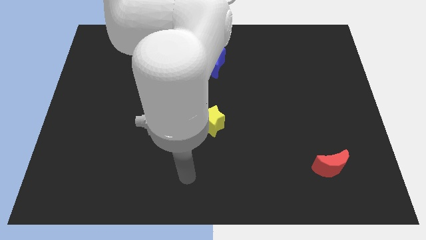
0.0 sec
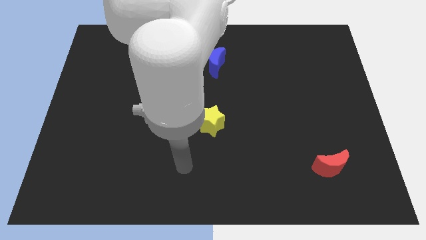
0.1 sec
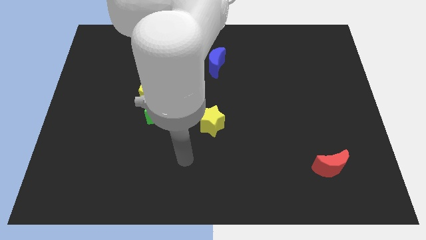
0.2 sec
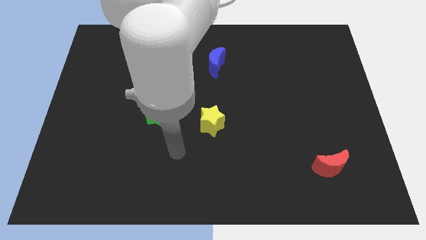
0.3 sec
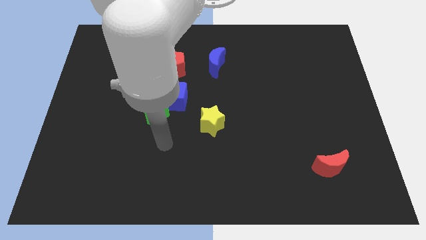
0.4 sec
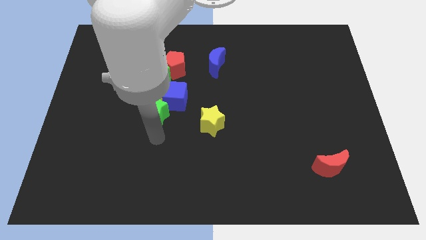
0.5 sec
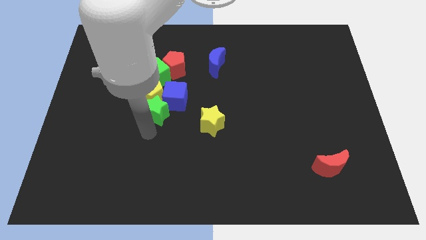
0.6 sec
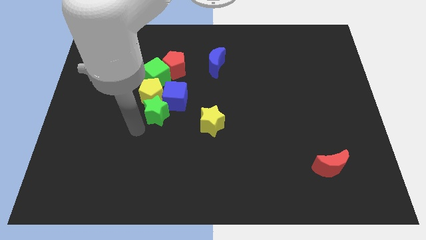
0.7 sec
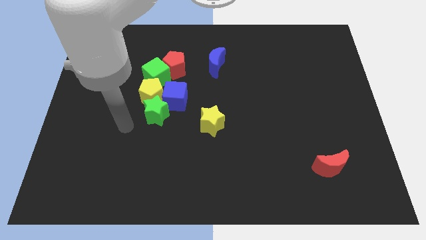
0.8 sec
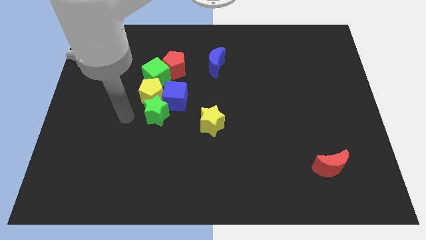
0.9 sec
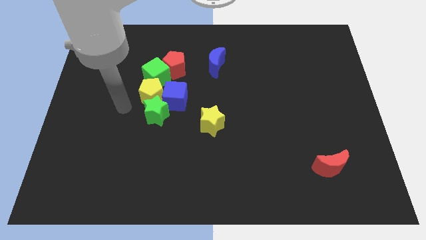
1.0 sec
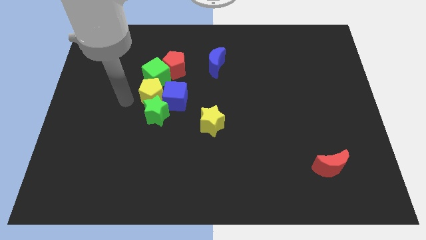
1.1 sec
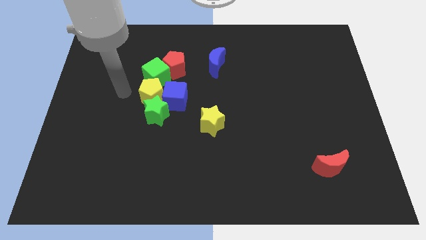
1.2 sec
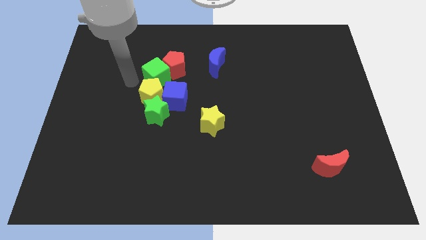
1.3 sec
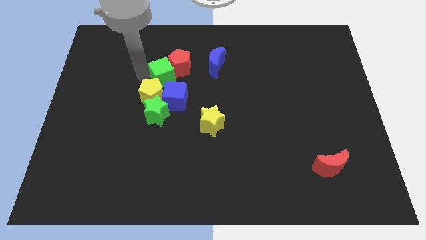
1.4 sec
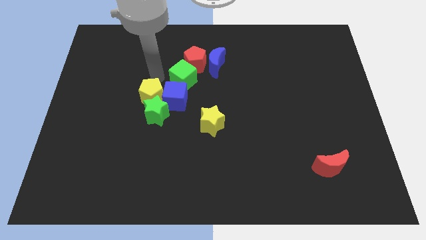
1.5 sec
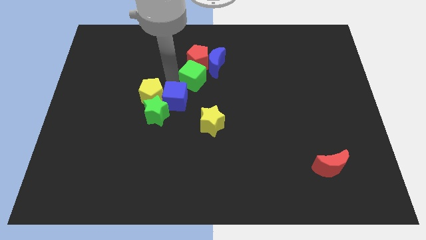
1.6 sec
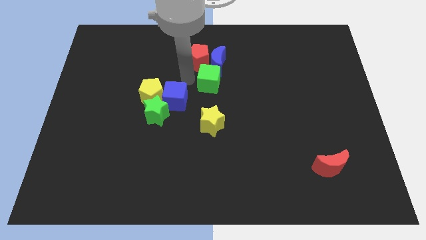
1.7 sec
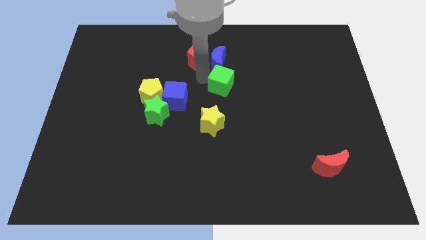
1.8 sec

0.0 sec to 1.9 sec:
move the red pentagon away from the green cube

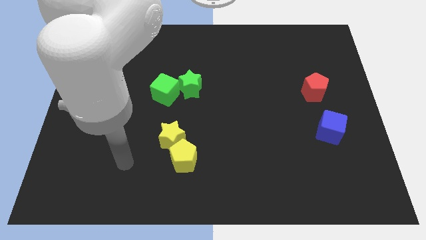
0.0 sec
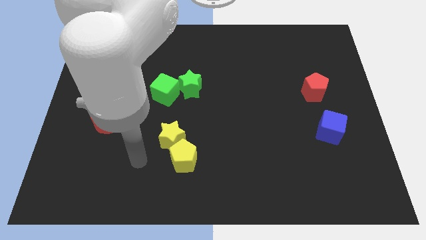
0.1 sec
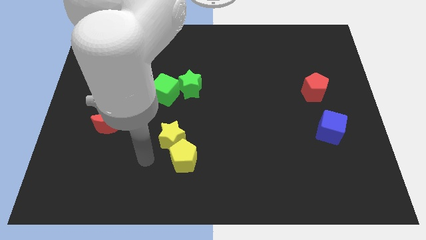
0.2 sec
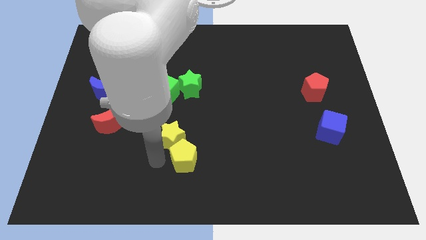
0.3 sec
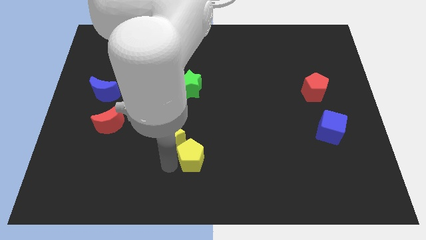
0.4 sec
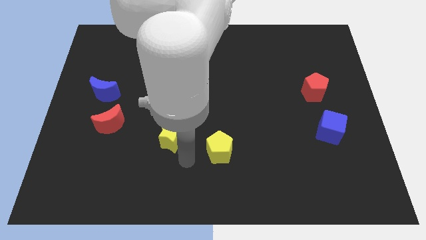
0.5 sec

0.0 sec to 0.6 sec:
move the yellow star away from the yellow pentagon

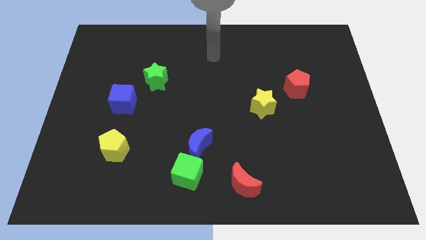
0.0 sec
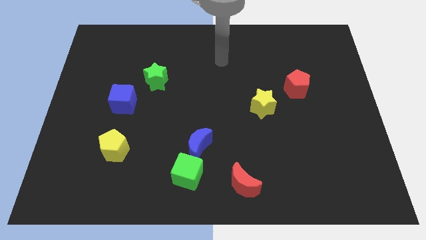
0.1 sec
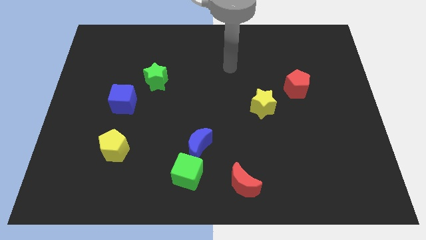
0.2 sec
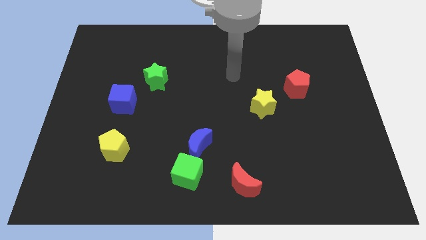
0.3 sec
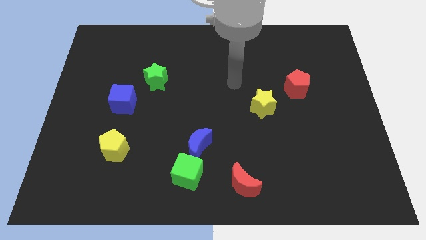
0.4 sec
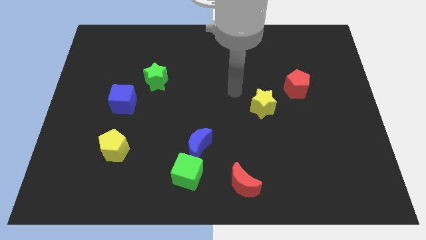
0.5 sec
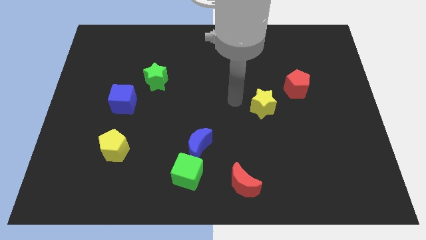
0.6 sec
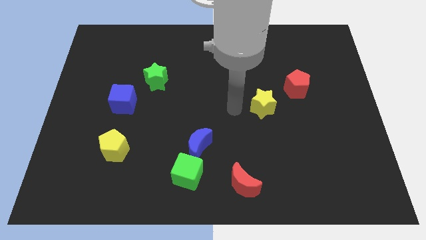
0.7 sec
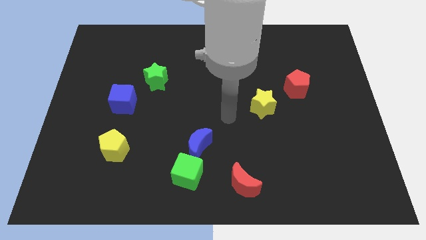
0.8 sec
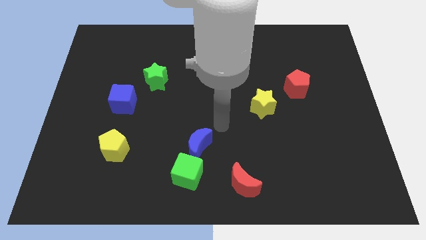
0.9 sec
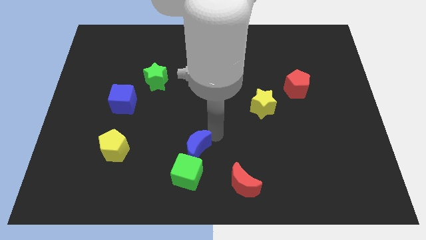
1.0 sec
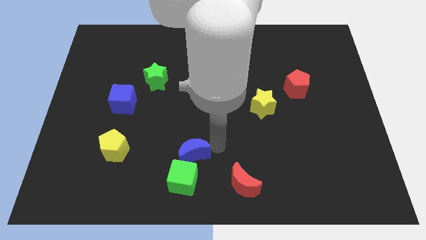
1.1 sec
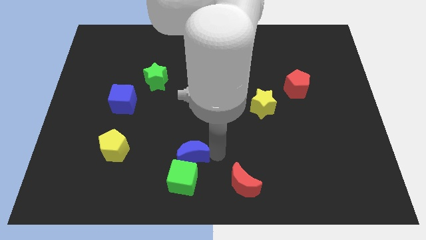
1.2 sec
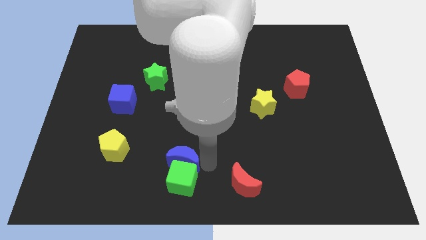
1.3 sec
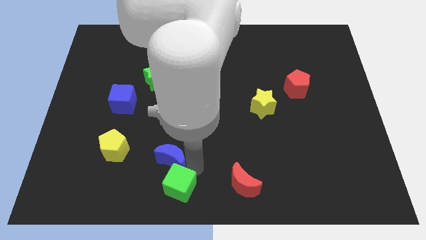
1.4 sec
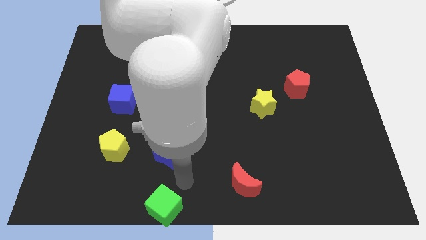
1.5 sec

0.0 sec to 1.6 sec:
move the blue moon away from the green cube

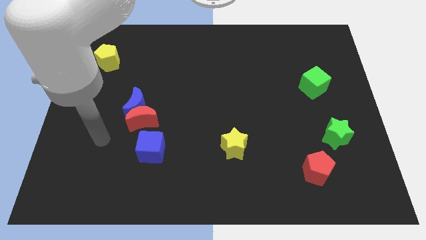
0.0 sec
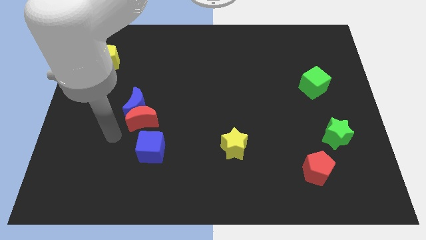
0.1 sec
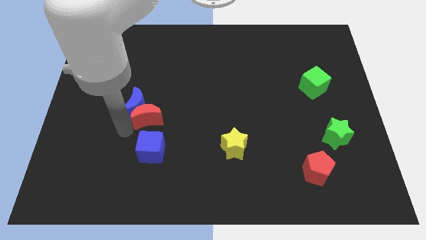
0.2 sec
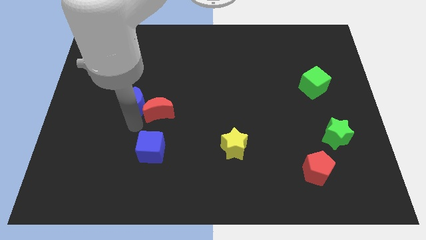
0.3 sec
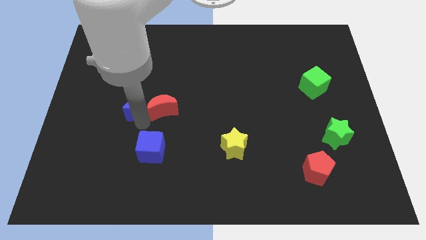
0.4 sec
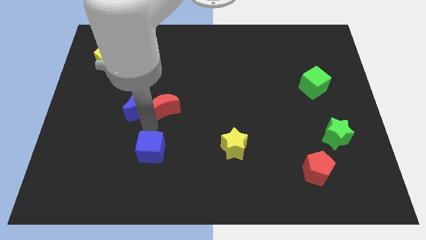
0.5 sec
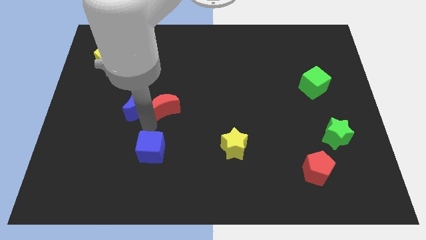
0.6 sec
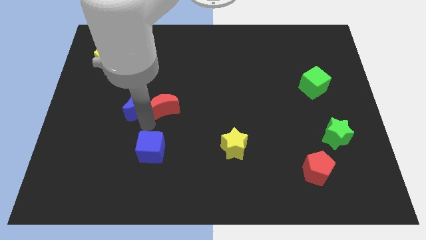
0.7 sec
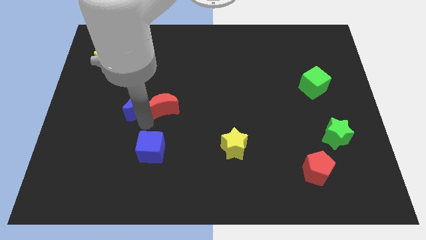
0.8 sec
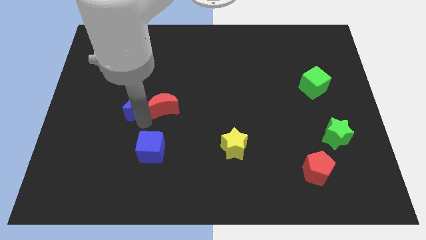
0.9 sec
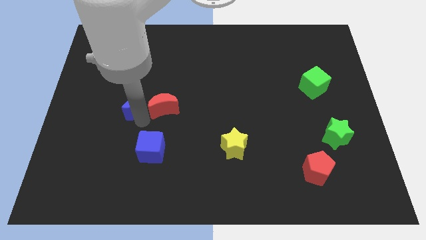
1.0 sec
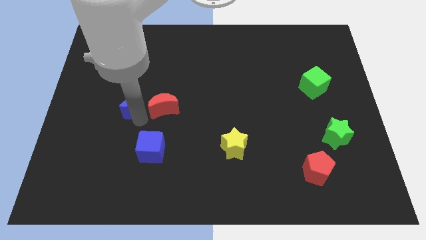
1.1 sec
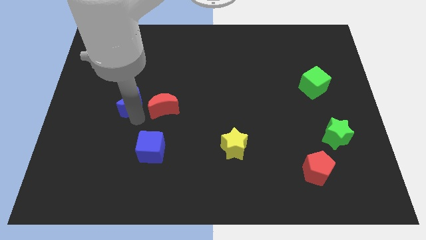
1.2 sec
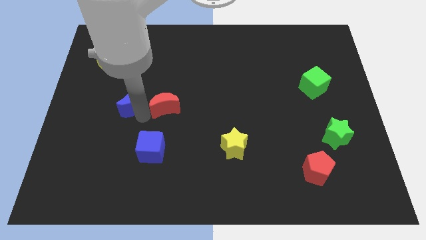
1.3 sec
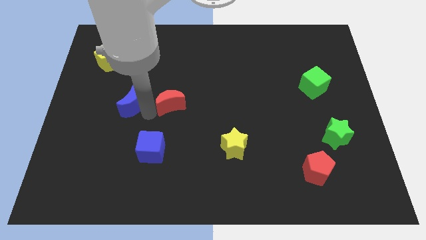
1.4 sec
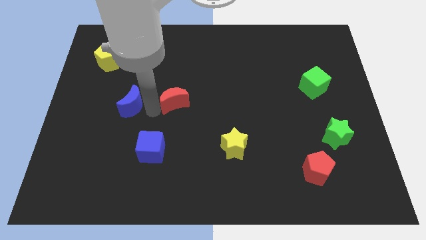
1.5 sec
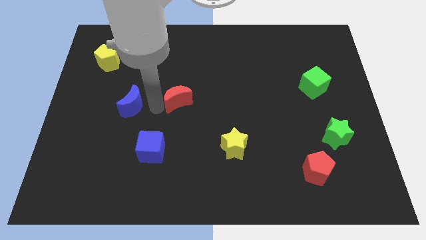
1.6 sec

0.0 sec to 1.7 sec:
pull the blue moon apart from the red moon

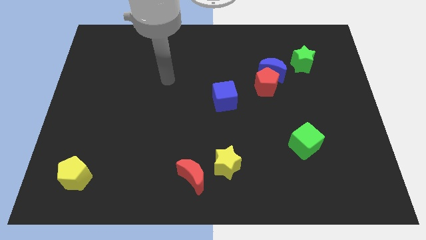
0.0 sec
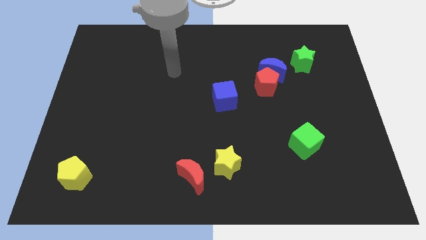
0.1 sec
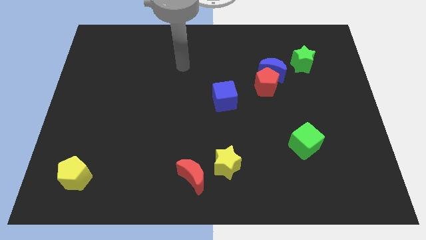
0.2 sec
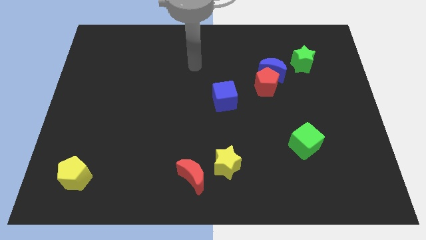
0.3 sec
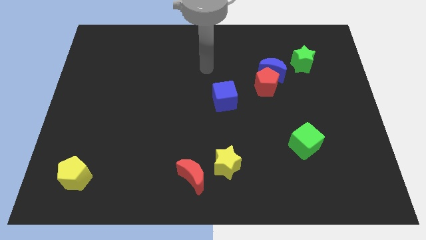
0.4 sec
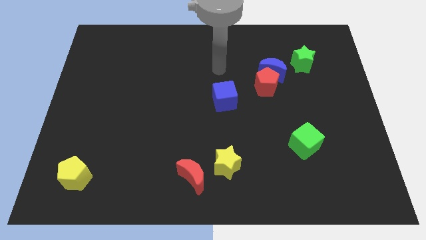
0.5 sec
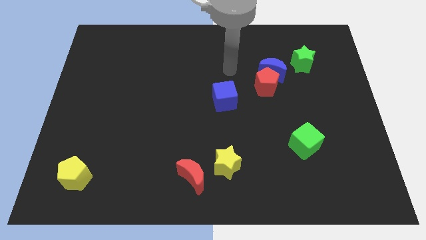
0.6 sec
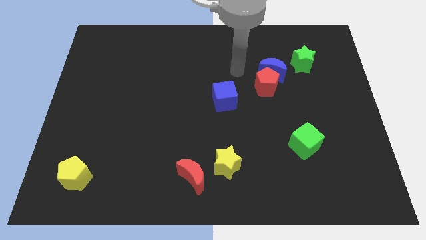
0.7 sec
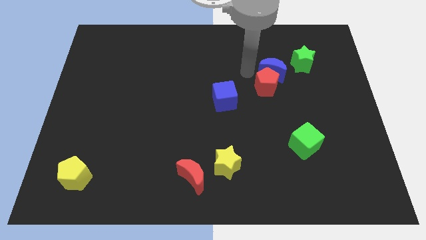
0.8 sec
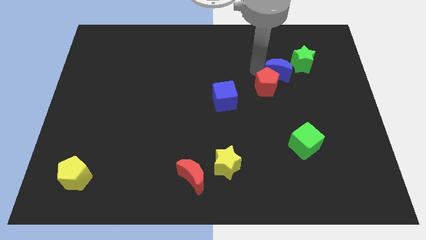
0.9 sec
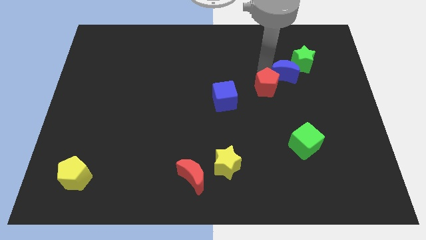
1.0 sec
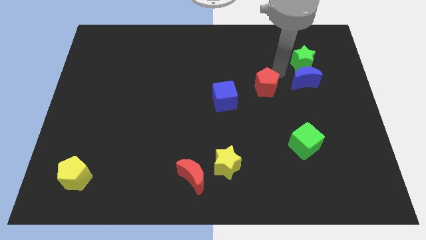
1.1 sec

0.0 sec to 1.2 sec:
separate the red pentagon from the blue moon

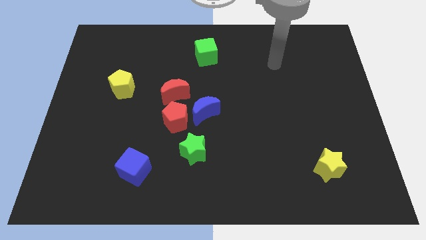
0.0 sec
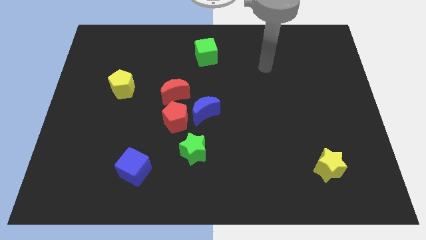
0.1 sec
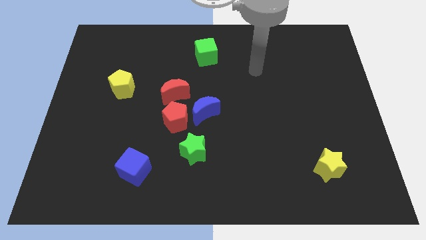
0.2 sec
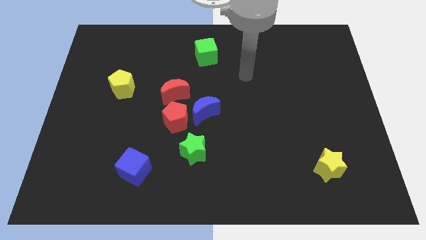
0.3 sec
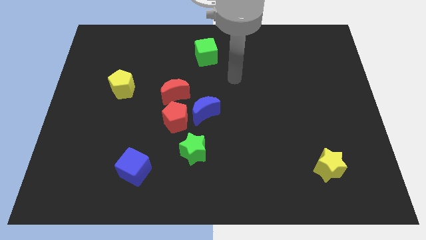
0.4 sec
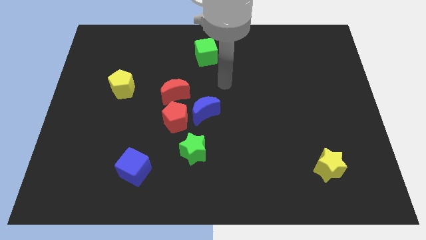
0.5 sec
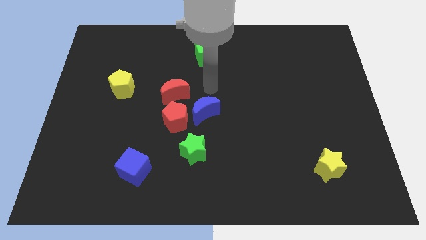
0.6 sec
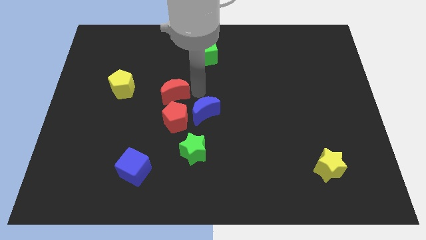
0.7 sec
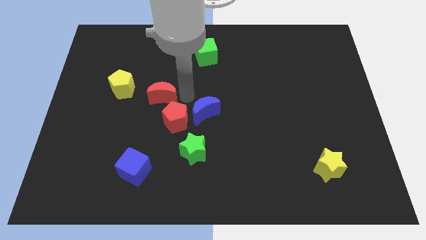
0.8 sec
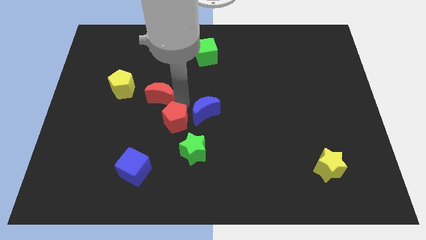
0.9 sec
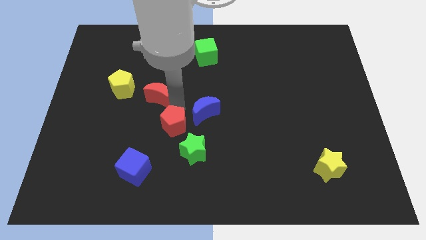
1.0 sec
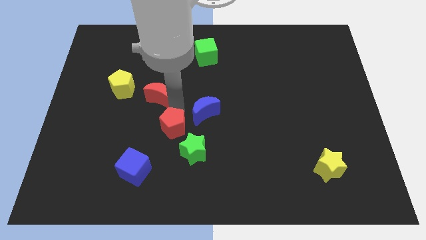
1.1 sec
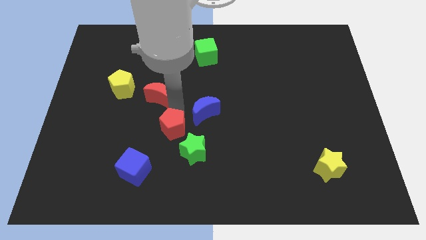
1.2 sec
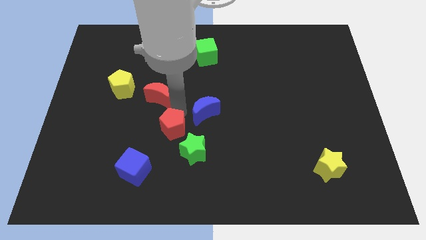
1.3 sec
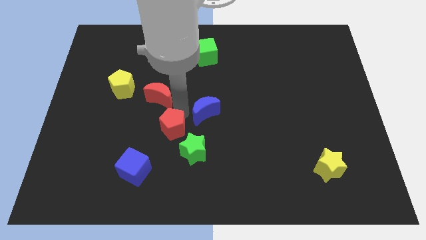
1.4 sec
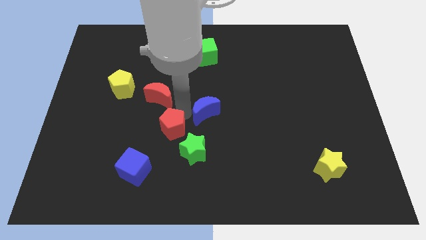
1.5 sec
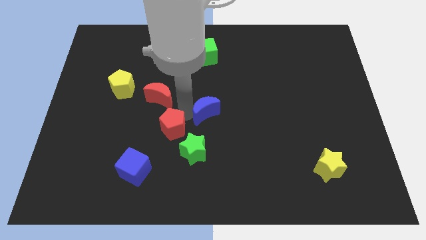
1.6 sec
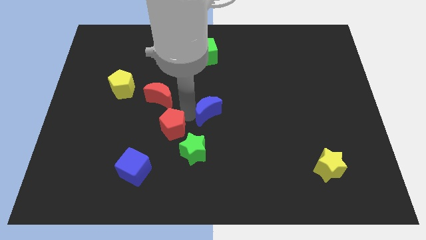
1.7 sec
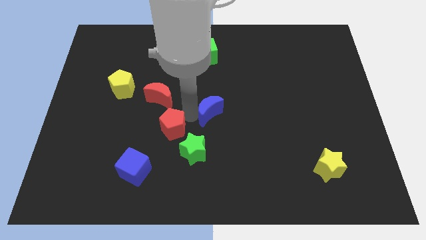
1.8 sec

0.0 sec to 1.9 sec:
pull the blue moon apart from the red pentagon and red moon

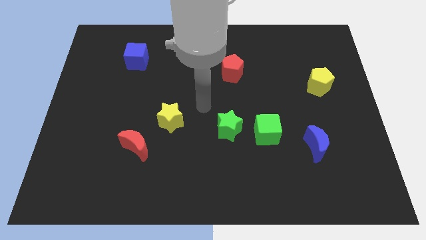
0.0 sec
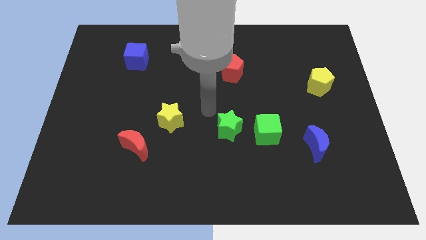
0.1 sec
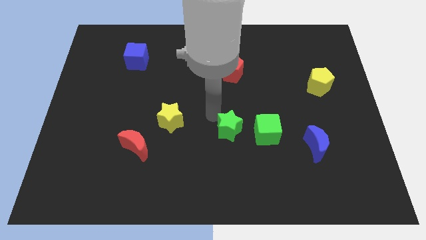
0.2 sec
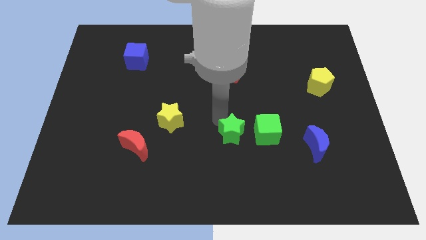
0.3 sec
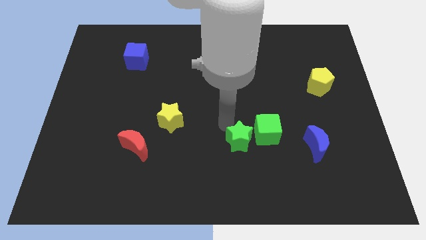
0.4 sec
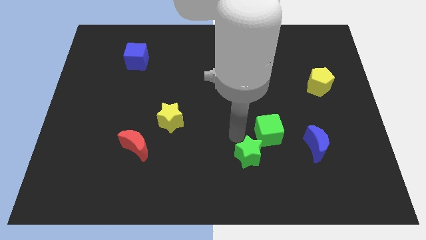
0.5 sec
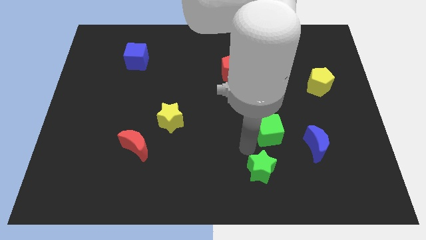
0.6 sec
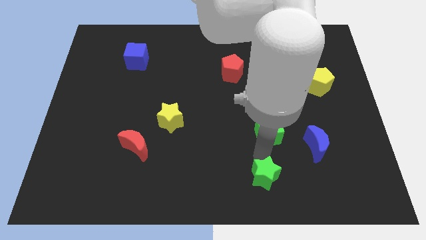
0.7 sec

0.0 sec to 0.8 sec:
separate the green cube from the green star
